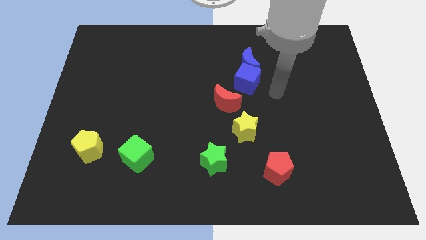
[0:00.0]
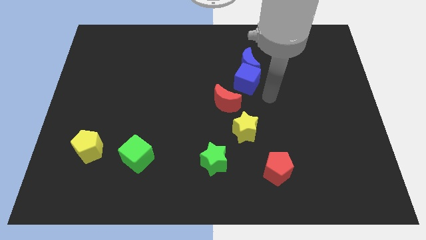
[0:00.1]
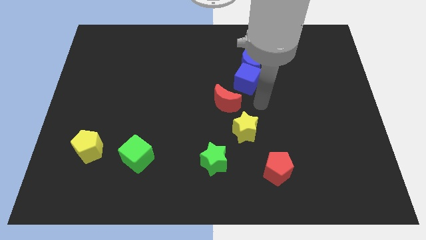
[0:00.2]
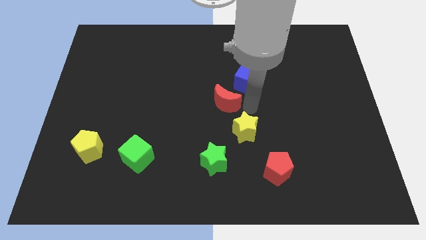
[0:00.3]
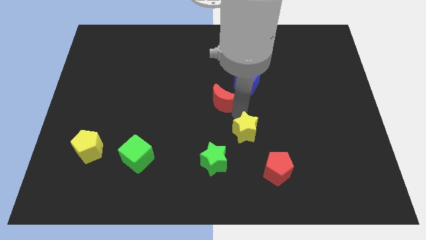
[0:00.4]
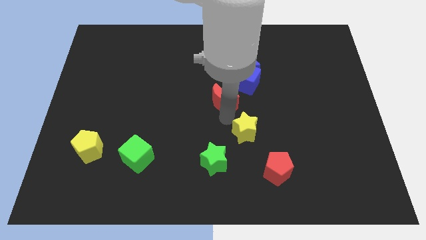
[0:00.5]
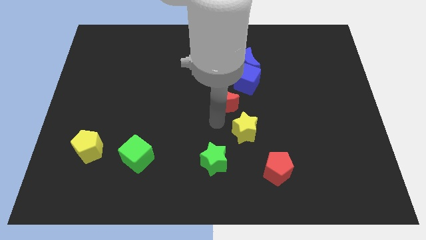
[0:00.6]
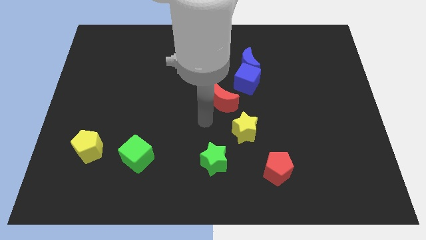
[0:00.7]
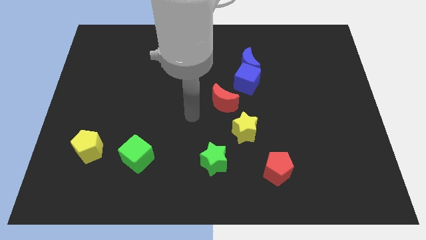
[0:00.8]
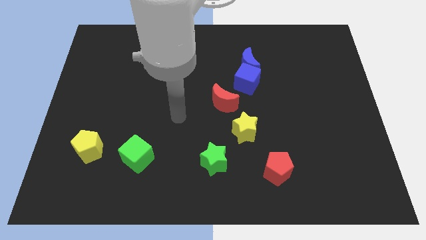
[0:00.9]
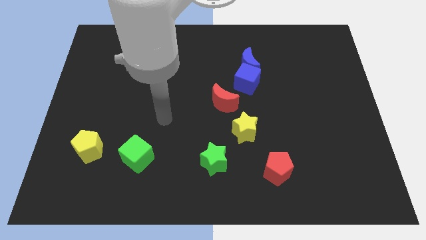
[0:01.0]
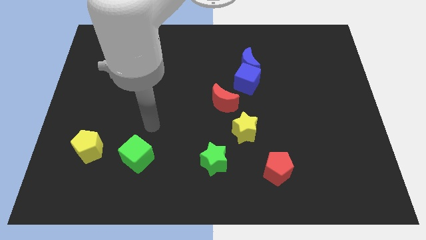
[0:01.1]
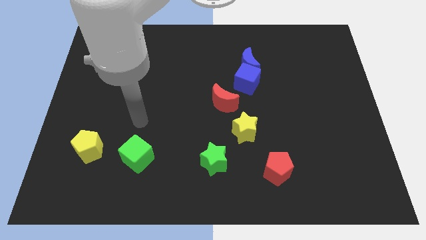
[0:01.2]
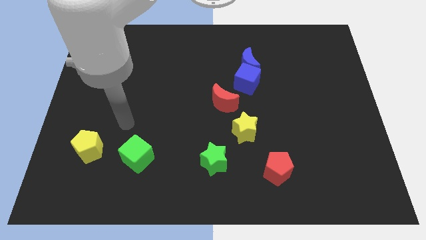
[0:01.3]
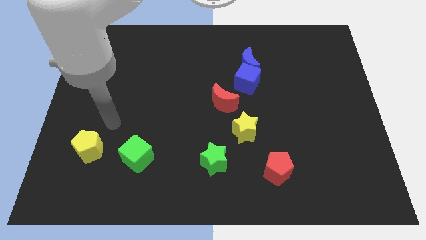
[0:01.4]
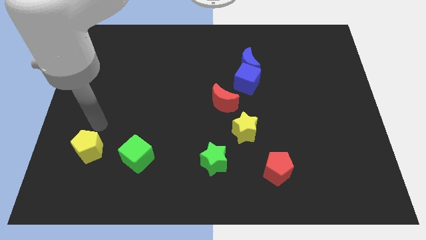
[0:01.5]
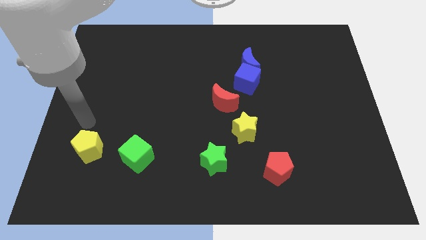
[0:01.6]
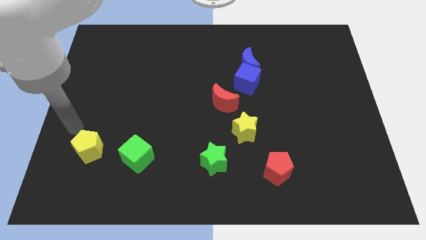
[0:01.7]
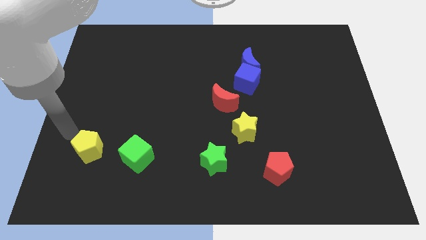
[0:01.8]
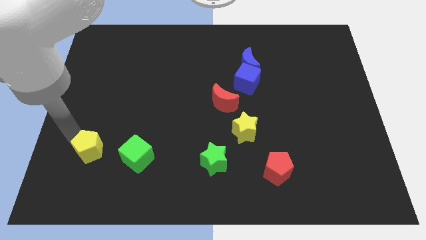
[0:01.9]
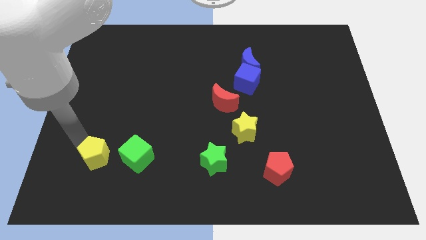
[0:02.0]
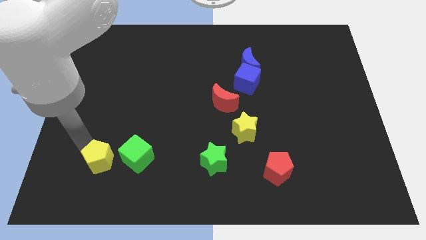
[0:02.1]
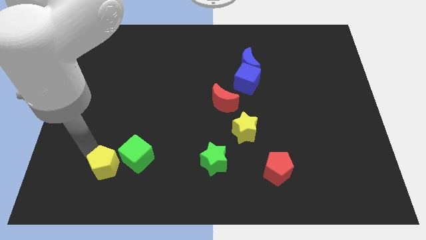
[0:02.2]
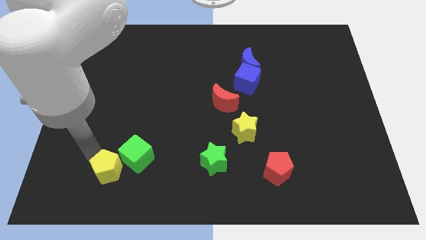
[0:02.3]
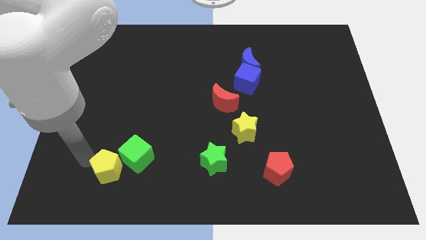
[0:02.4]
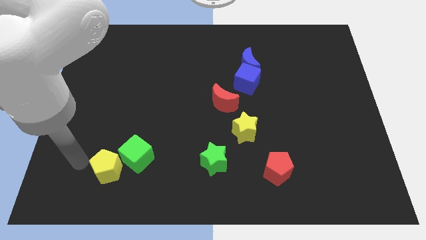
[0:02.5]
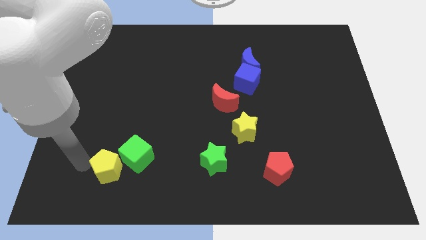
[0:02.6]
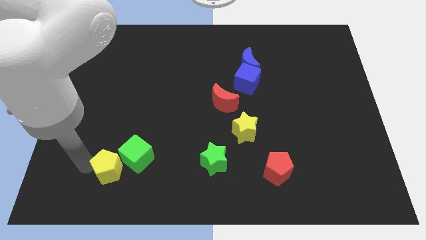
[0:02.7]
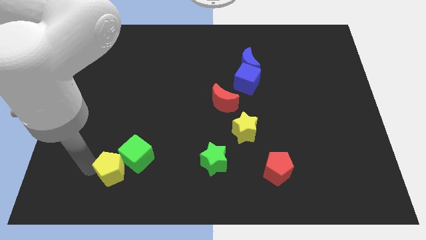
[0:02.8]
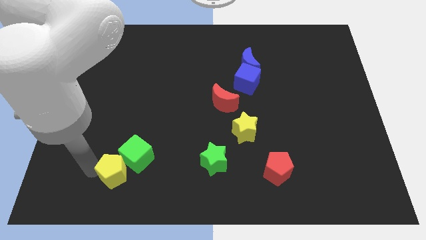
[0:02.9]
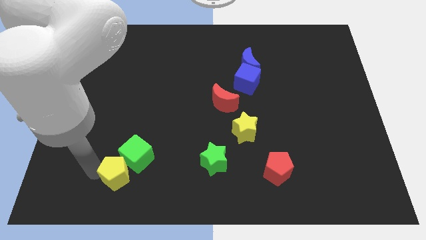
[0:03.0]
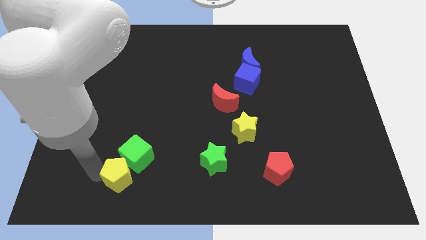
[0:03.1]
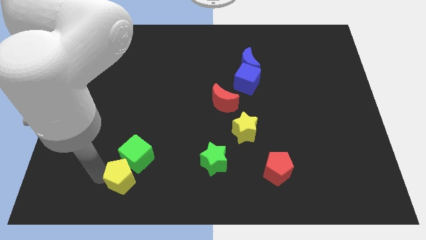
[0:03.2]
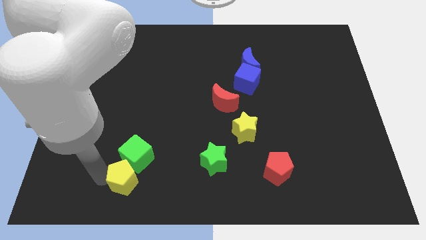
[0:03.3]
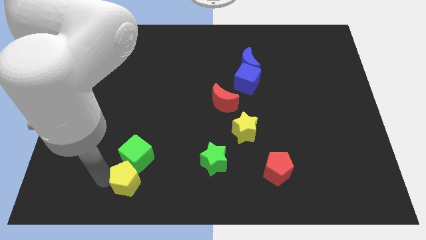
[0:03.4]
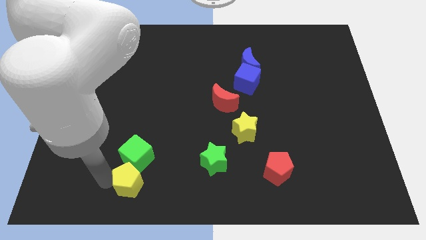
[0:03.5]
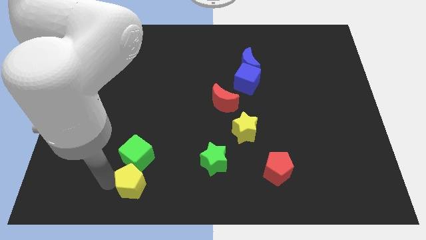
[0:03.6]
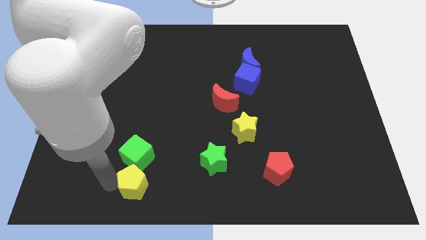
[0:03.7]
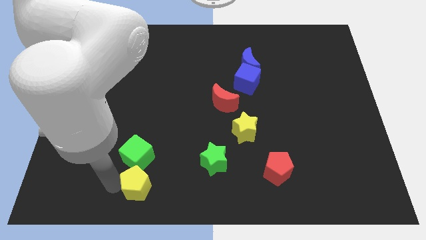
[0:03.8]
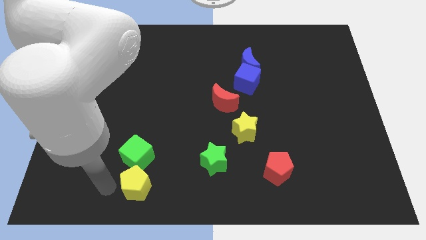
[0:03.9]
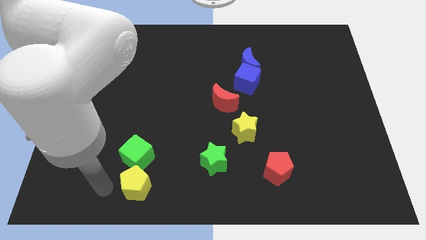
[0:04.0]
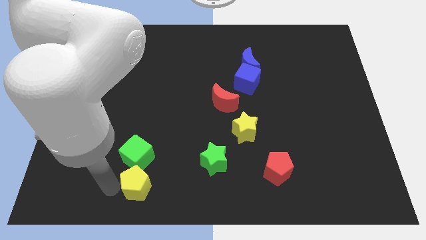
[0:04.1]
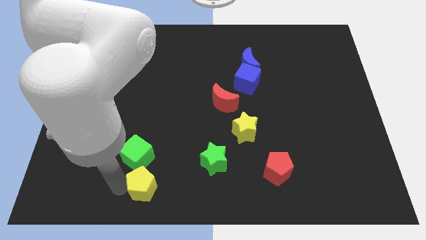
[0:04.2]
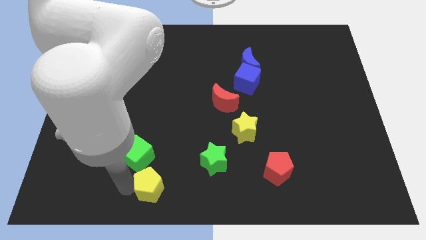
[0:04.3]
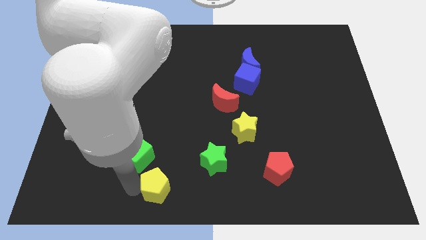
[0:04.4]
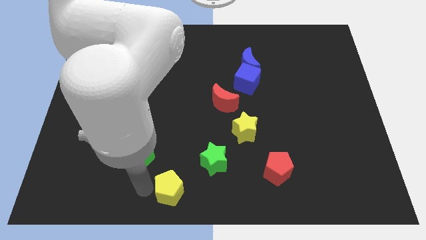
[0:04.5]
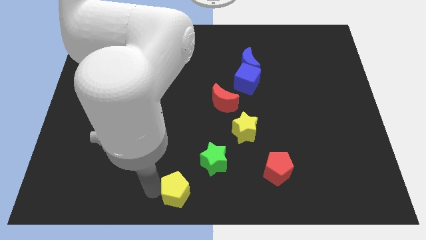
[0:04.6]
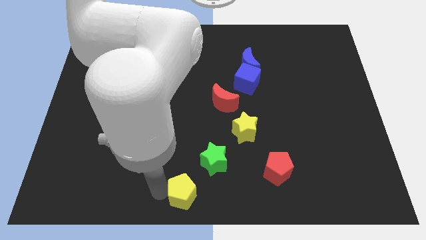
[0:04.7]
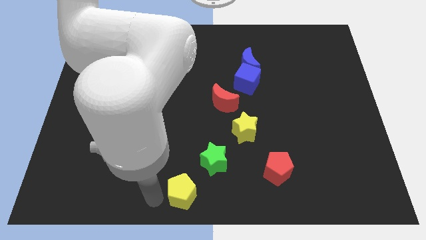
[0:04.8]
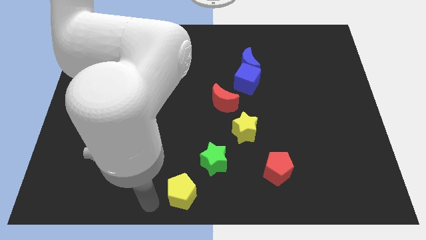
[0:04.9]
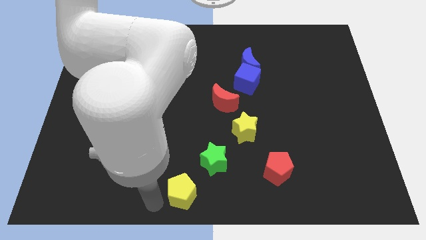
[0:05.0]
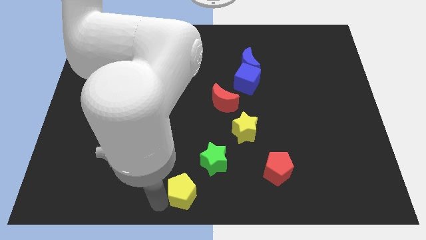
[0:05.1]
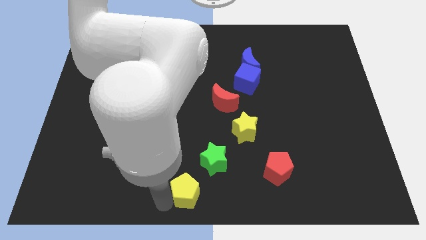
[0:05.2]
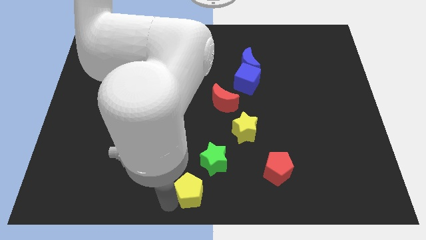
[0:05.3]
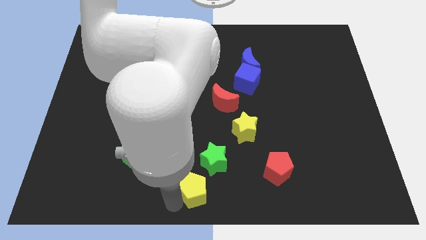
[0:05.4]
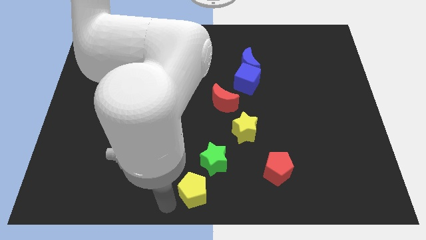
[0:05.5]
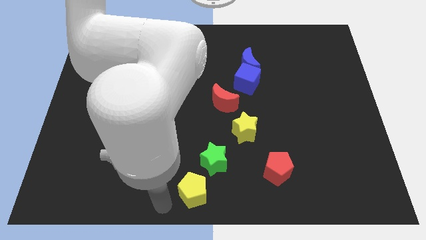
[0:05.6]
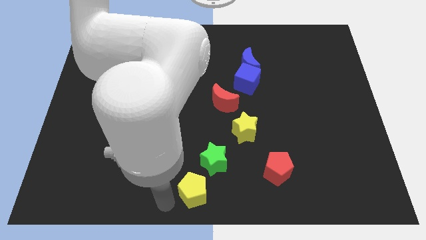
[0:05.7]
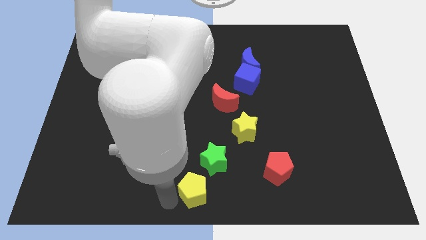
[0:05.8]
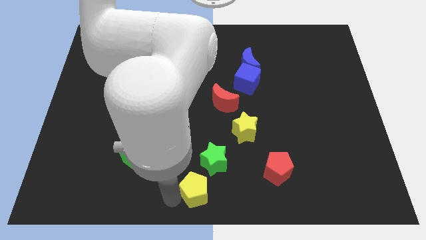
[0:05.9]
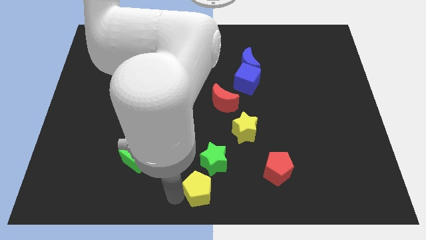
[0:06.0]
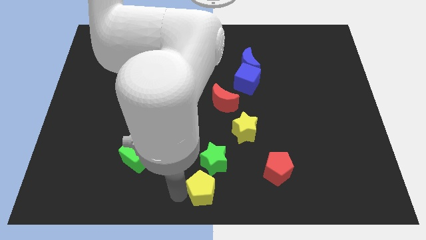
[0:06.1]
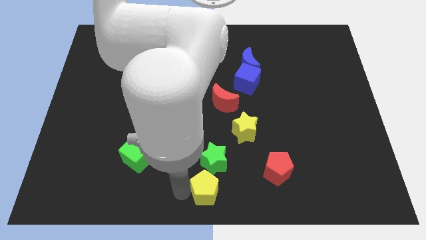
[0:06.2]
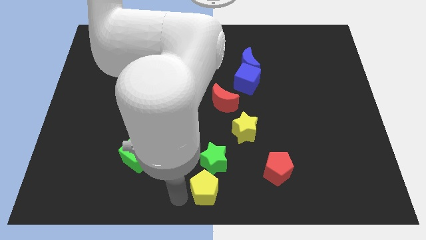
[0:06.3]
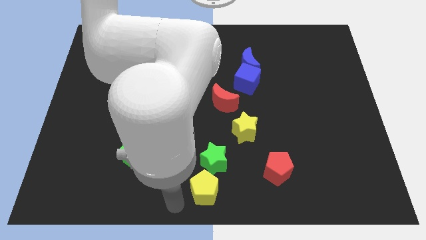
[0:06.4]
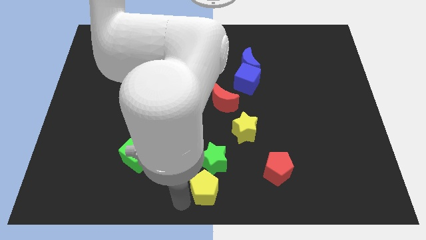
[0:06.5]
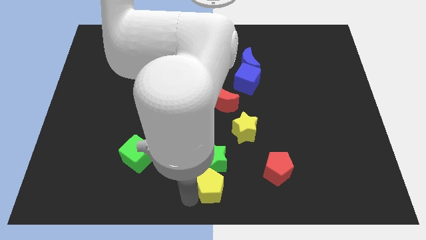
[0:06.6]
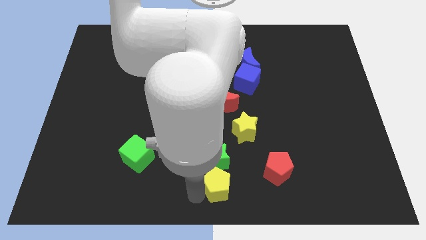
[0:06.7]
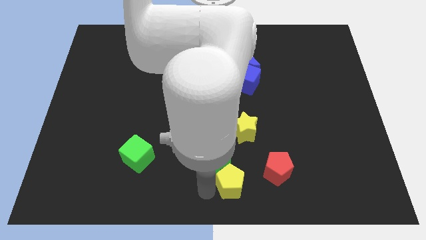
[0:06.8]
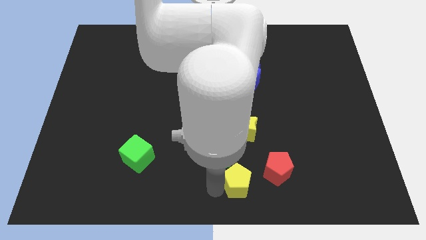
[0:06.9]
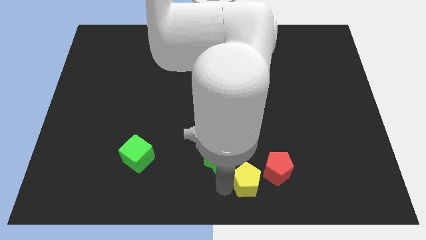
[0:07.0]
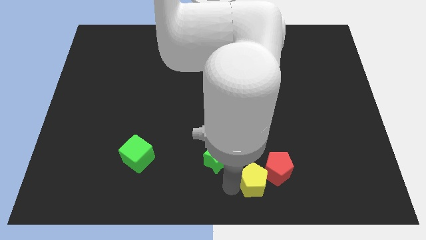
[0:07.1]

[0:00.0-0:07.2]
slide the yellow pentagon next to the red pentagon
